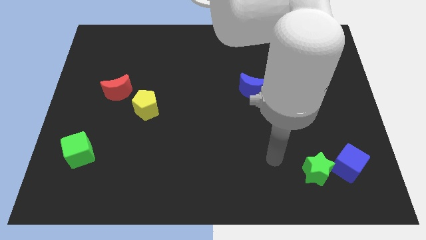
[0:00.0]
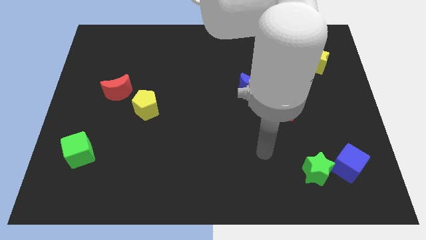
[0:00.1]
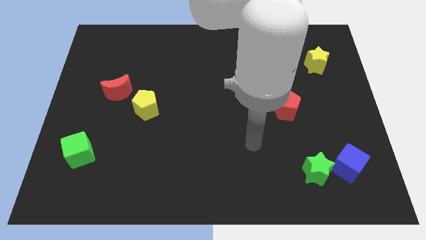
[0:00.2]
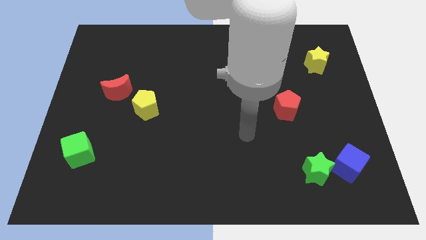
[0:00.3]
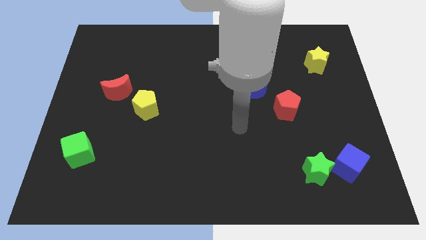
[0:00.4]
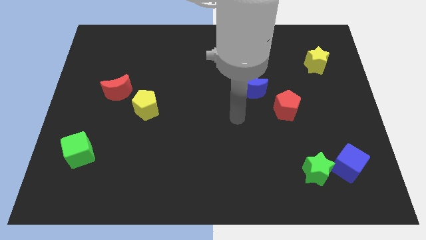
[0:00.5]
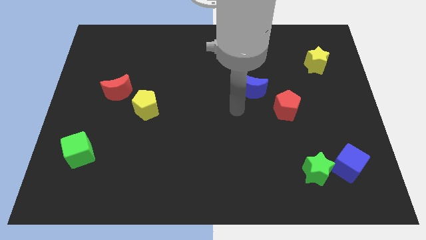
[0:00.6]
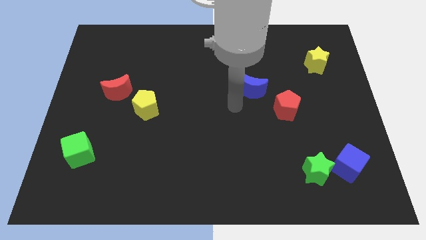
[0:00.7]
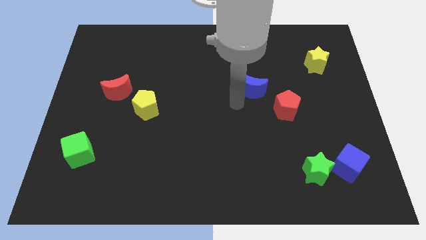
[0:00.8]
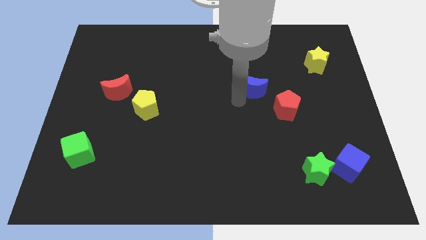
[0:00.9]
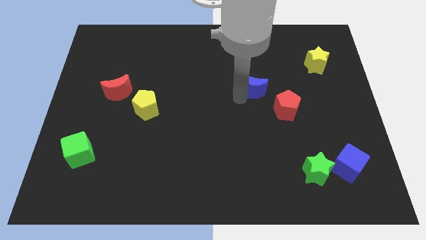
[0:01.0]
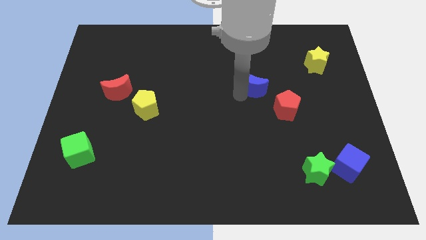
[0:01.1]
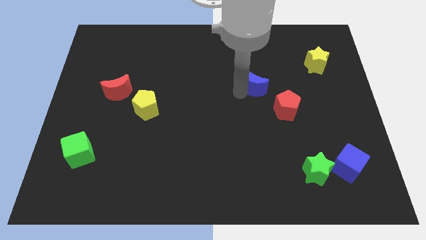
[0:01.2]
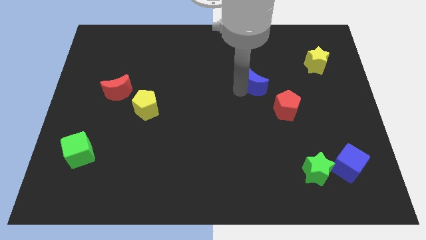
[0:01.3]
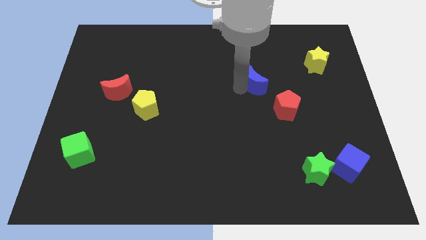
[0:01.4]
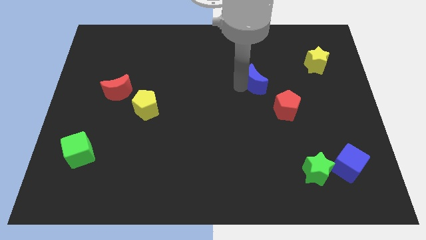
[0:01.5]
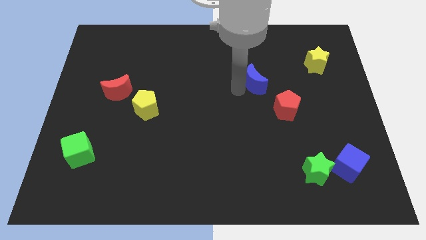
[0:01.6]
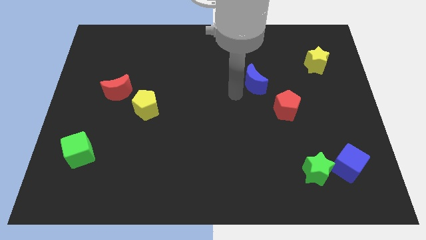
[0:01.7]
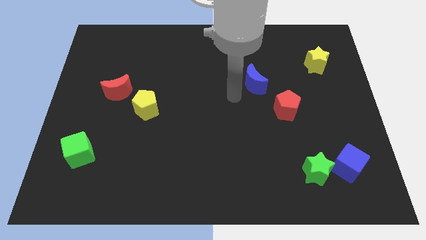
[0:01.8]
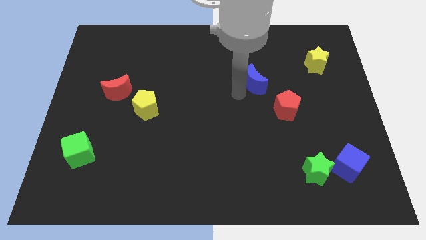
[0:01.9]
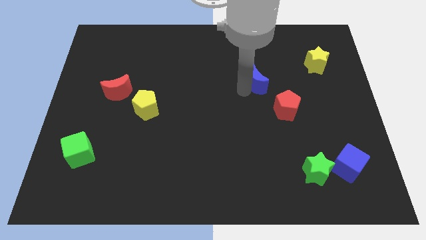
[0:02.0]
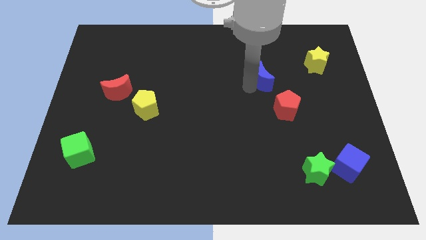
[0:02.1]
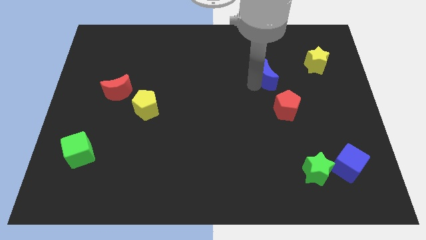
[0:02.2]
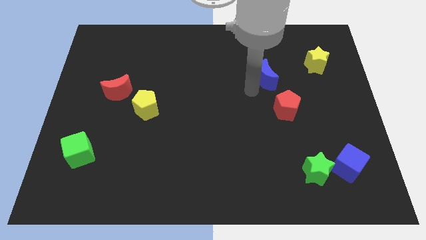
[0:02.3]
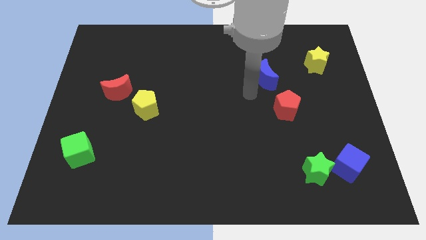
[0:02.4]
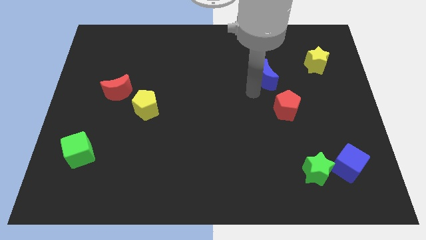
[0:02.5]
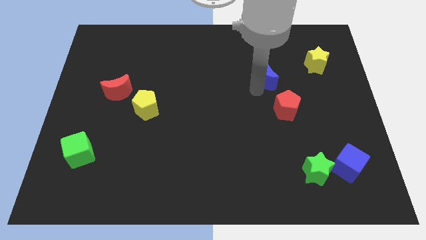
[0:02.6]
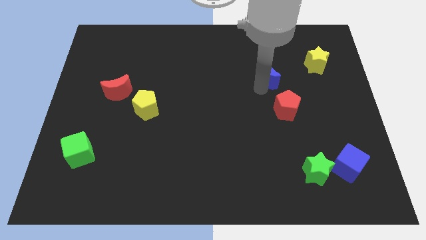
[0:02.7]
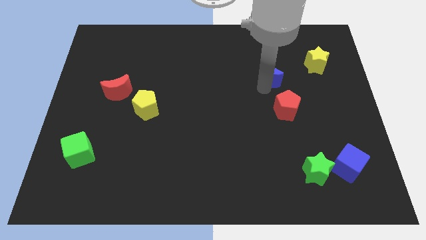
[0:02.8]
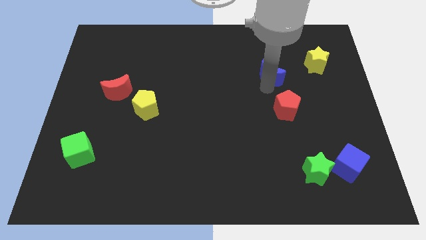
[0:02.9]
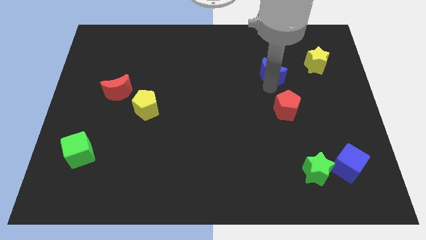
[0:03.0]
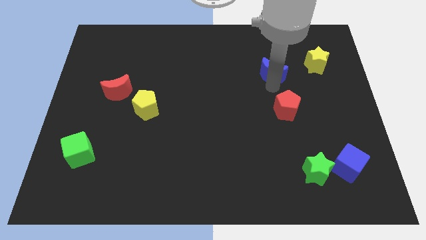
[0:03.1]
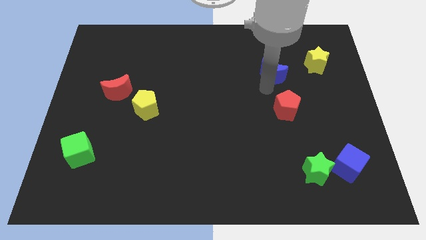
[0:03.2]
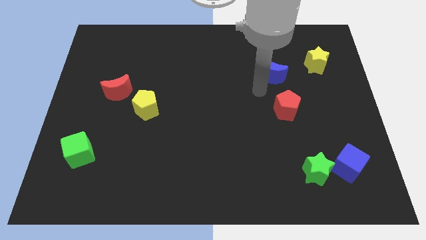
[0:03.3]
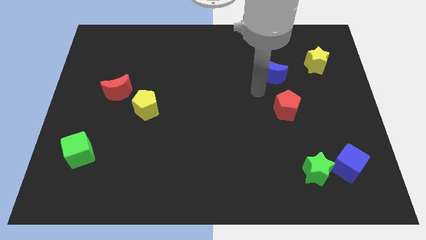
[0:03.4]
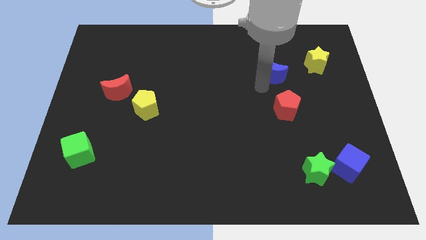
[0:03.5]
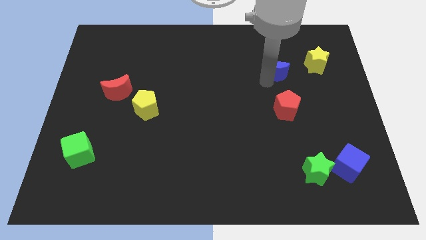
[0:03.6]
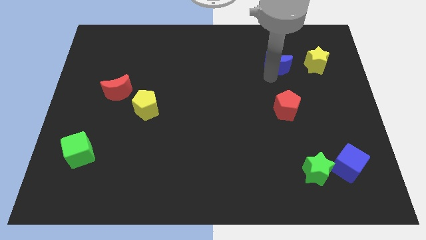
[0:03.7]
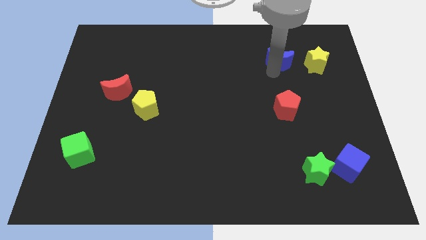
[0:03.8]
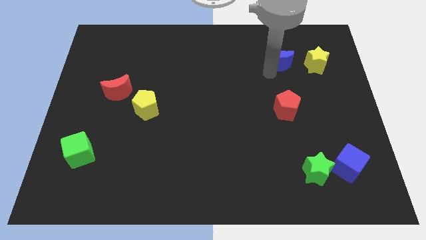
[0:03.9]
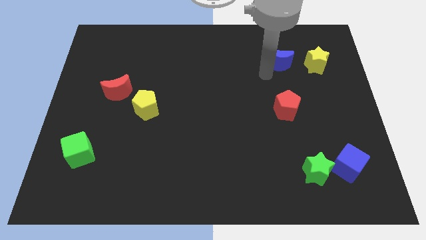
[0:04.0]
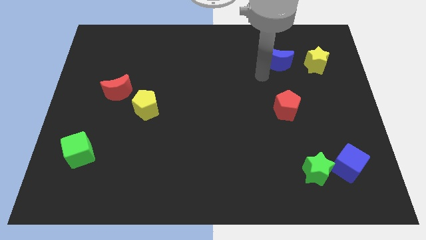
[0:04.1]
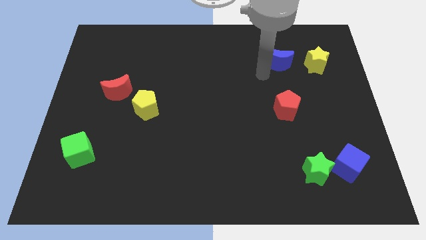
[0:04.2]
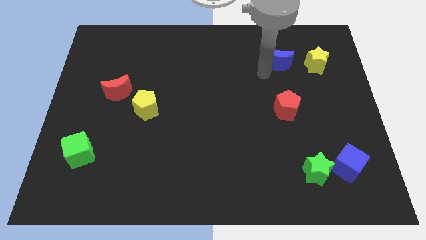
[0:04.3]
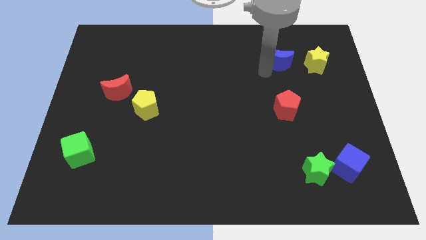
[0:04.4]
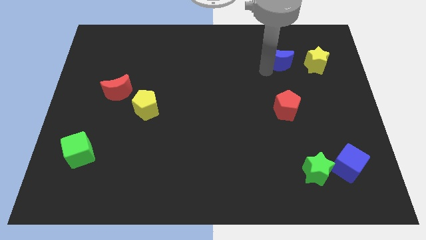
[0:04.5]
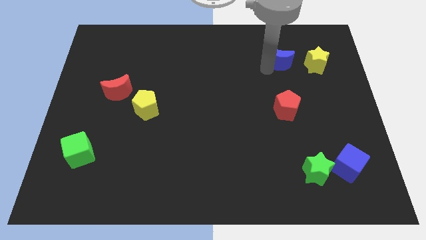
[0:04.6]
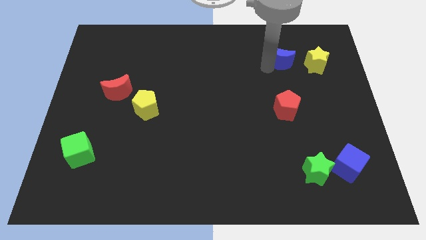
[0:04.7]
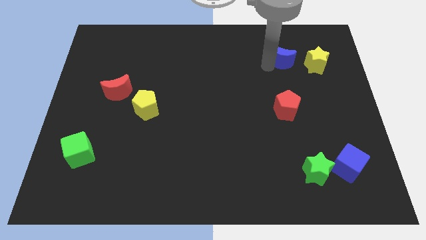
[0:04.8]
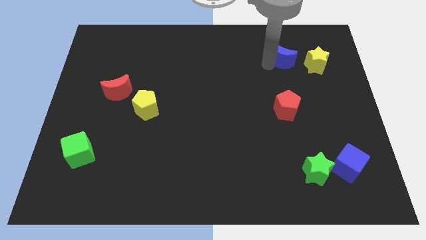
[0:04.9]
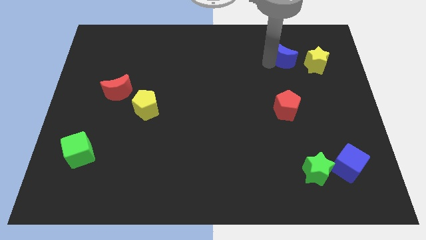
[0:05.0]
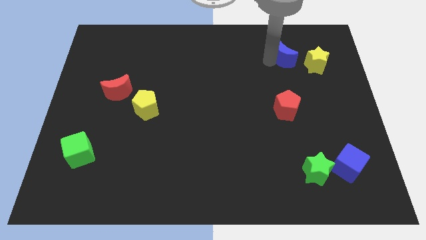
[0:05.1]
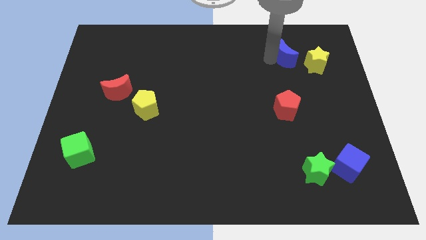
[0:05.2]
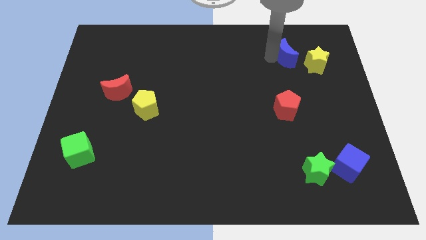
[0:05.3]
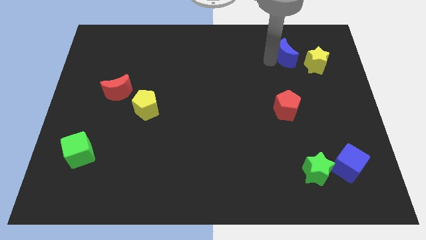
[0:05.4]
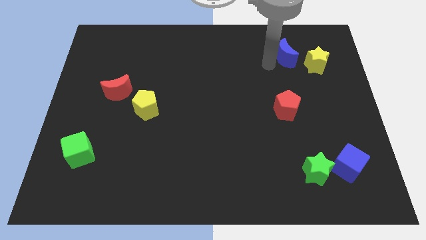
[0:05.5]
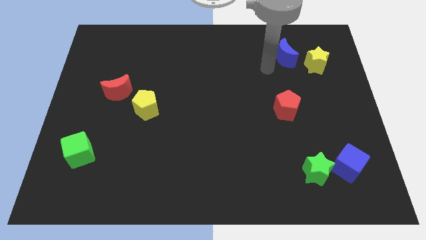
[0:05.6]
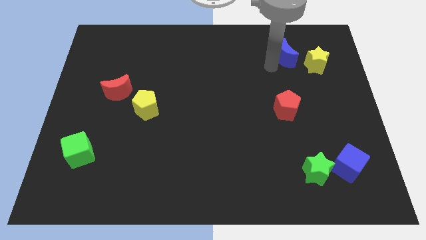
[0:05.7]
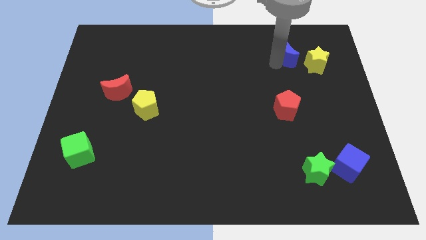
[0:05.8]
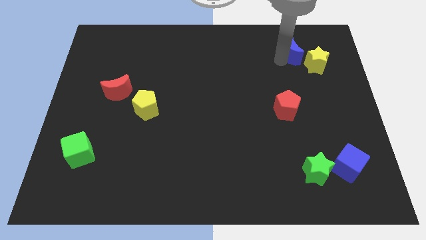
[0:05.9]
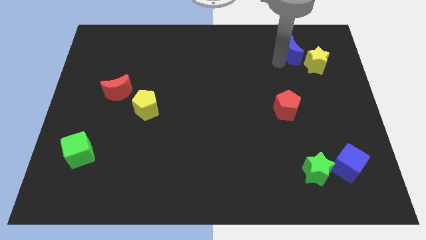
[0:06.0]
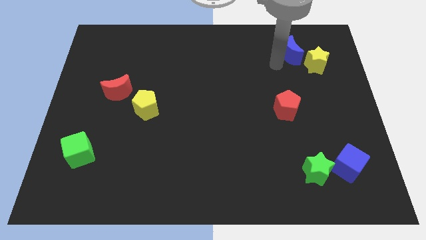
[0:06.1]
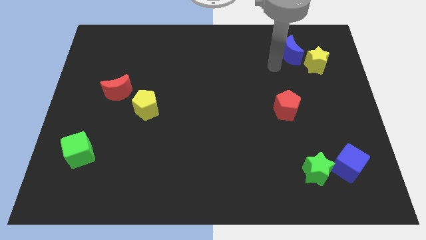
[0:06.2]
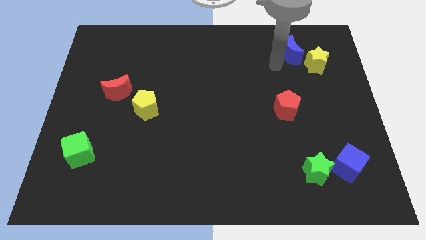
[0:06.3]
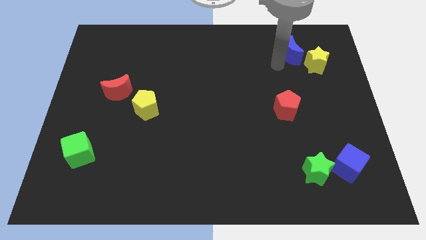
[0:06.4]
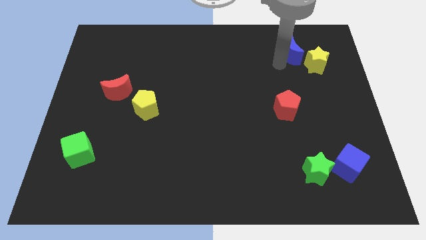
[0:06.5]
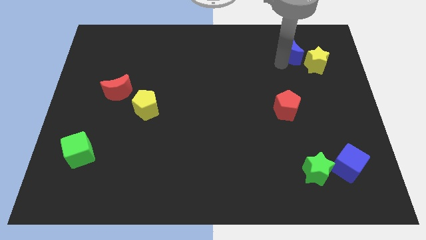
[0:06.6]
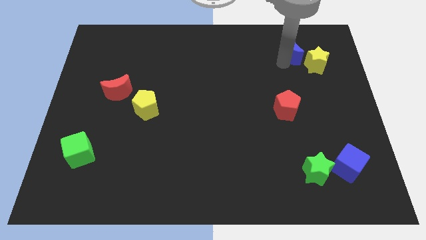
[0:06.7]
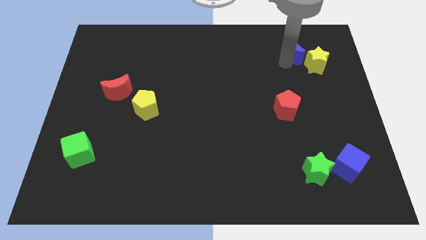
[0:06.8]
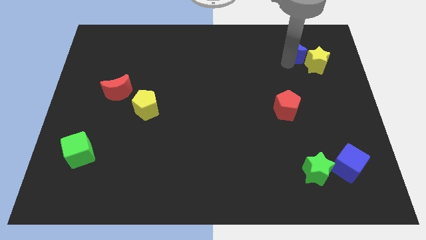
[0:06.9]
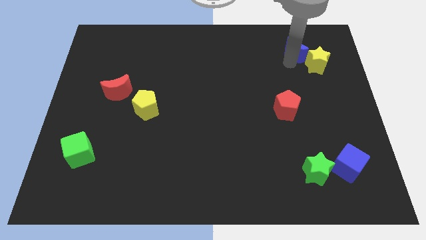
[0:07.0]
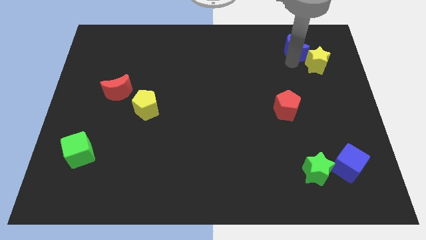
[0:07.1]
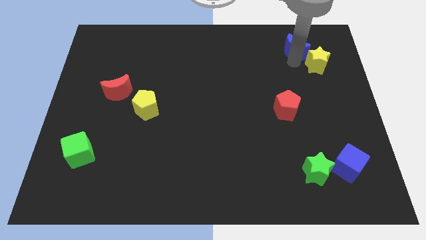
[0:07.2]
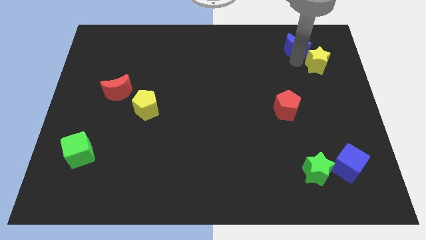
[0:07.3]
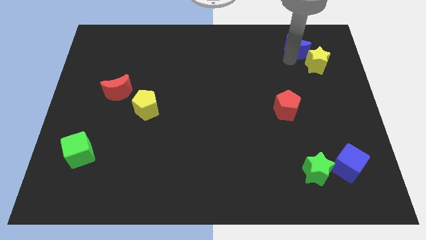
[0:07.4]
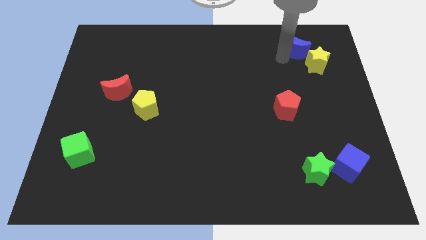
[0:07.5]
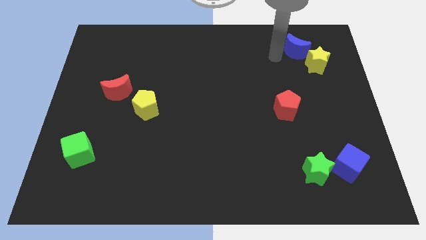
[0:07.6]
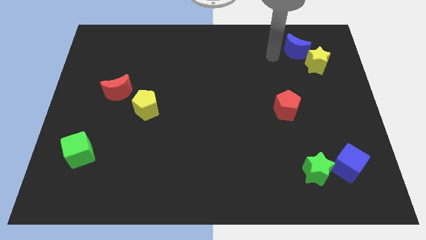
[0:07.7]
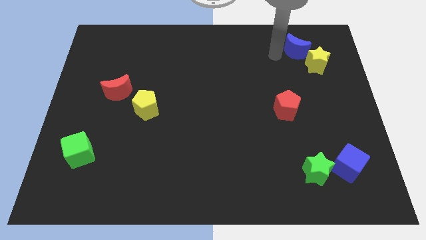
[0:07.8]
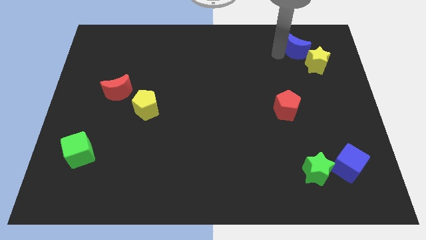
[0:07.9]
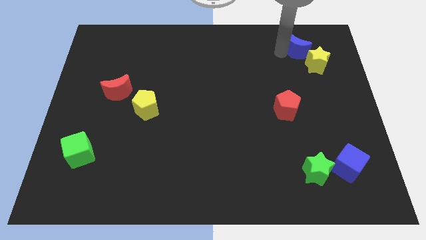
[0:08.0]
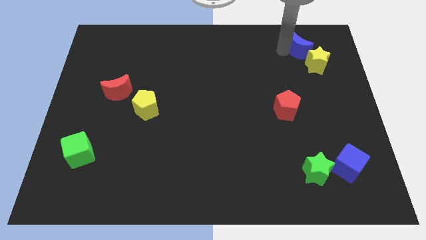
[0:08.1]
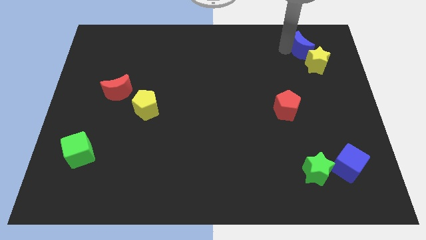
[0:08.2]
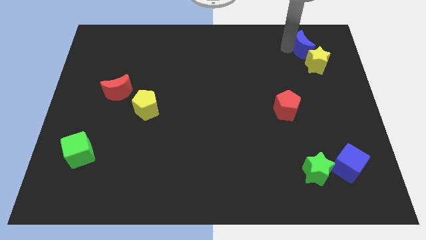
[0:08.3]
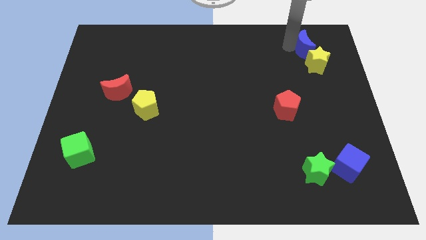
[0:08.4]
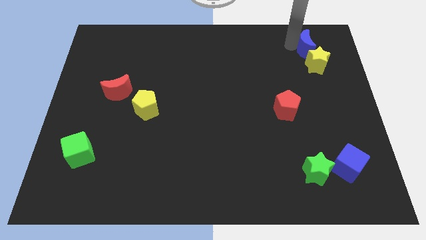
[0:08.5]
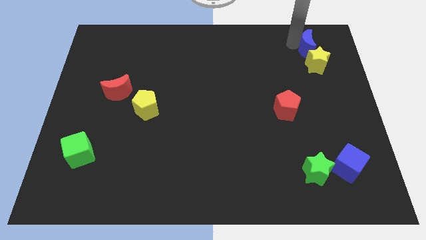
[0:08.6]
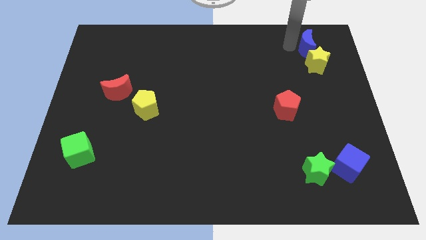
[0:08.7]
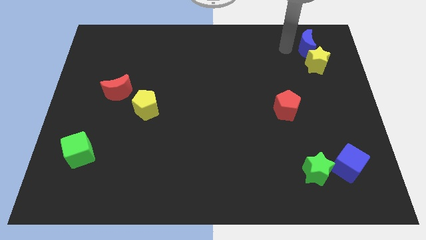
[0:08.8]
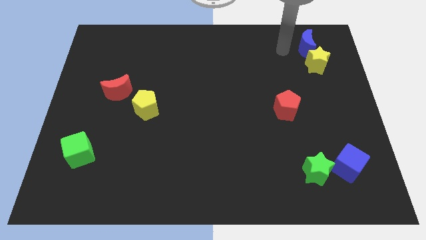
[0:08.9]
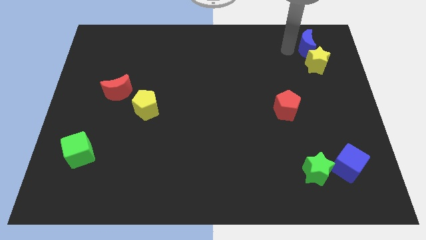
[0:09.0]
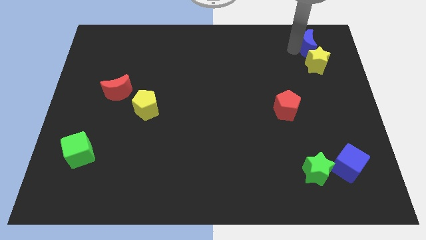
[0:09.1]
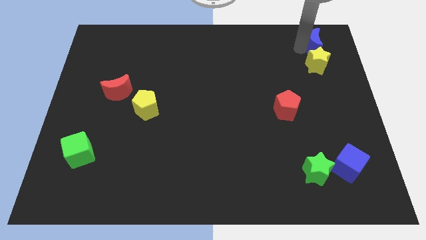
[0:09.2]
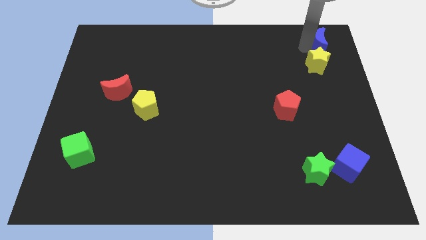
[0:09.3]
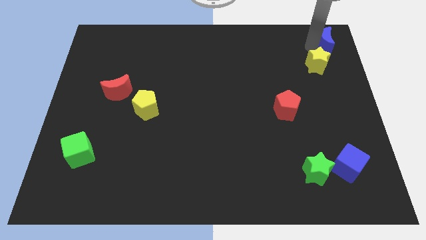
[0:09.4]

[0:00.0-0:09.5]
move the blue moon to the upper right corner
